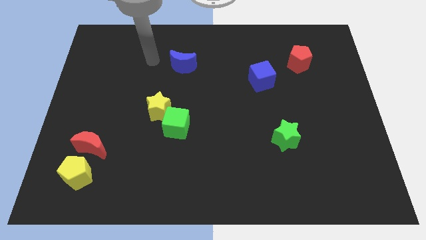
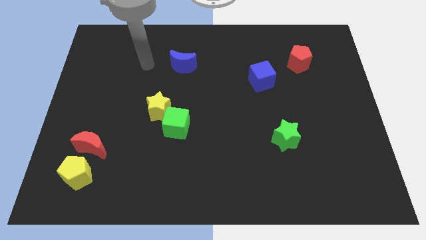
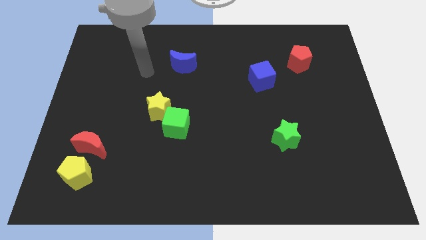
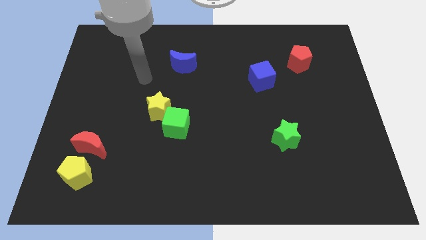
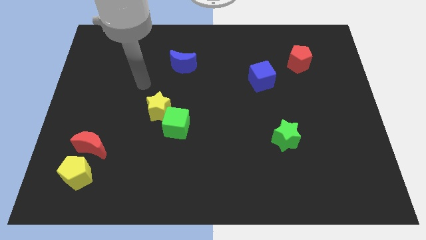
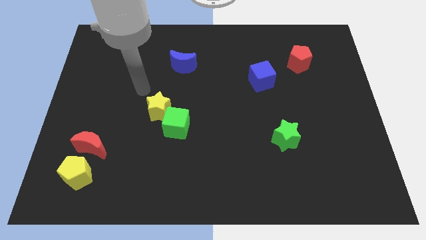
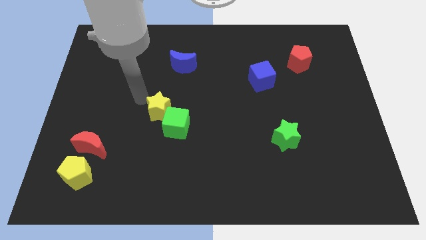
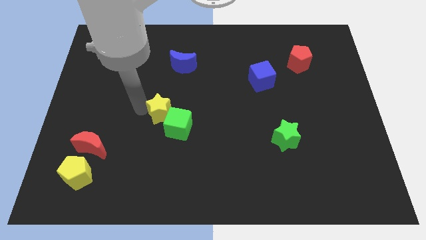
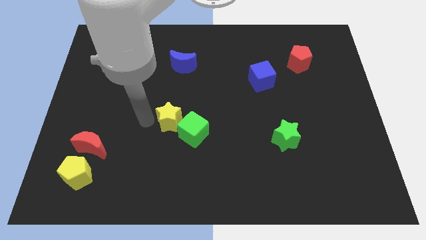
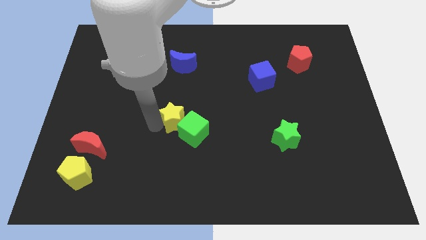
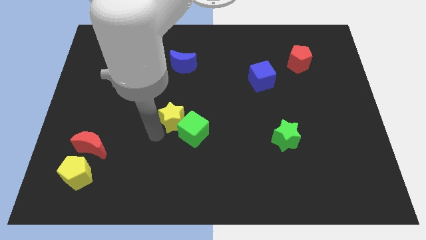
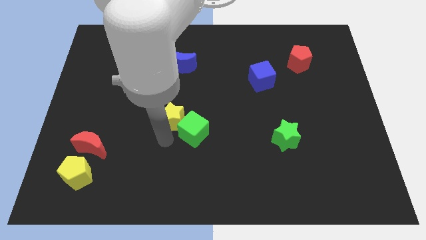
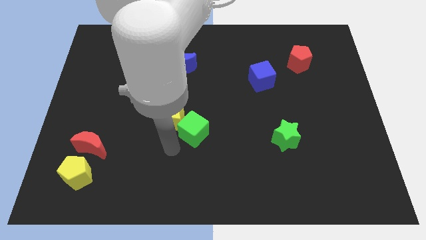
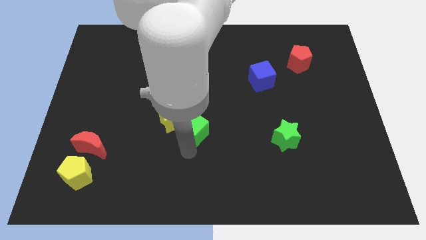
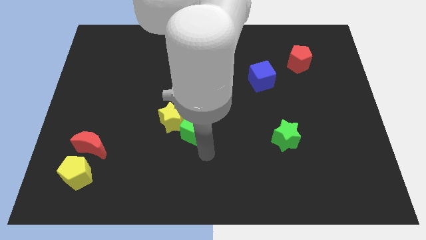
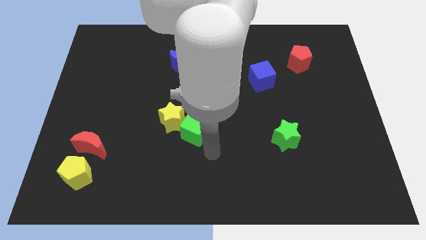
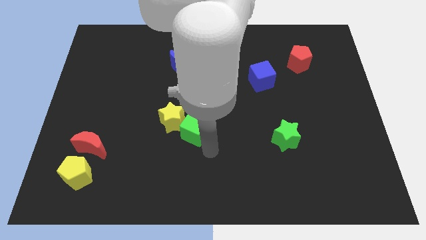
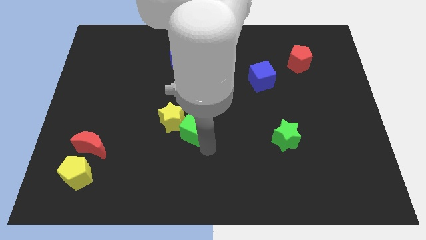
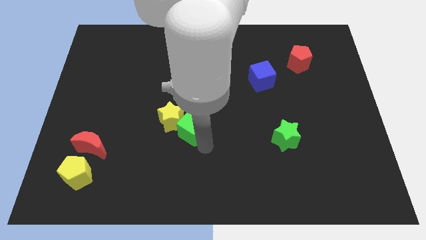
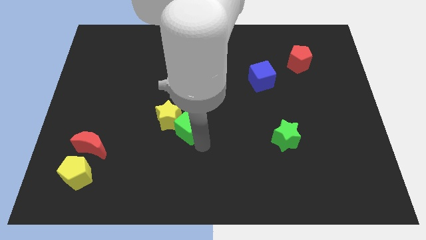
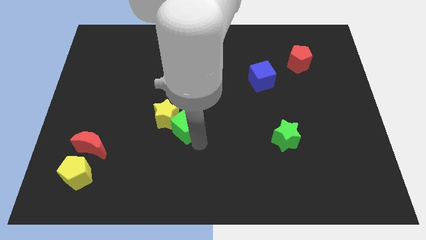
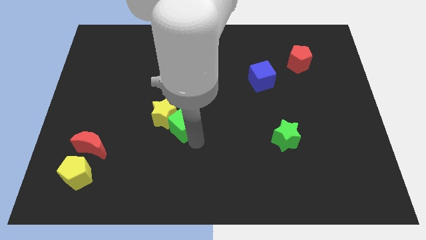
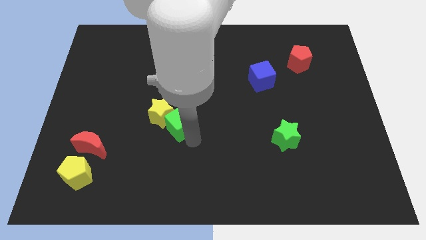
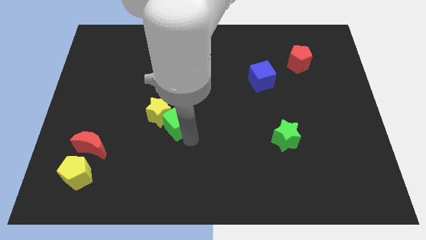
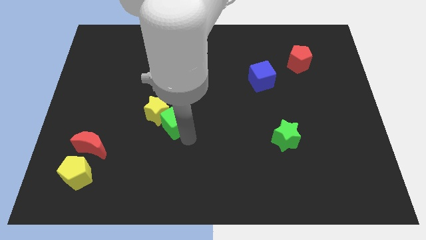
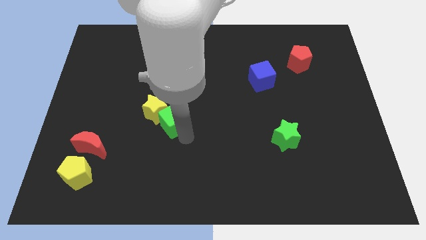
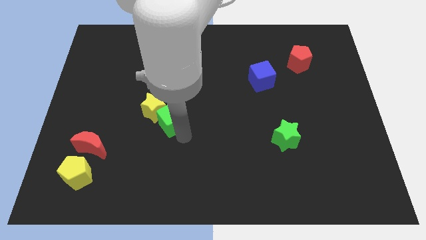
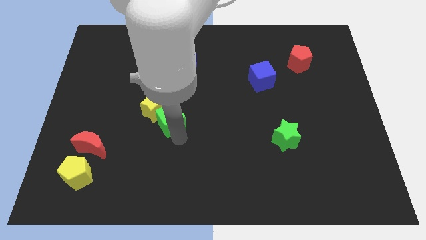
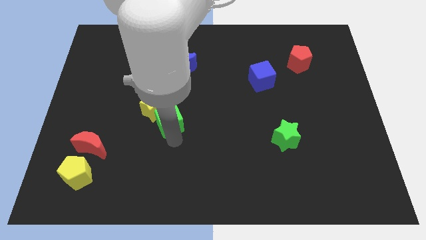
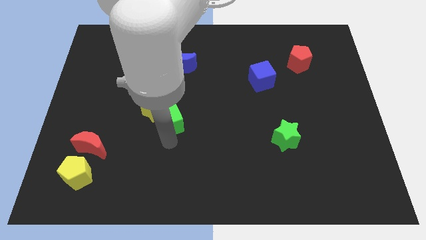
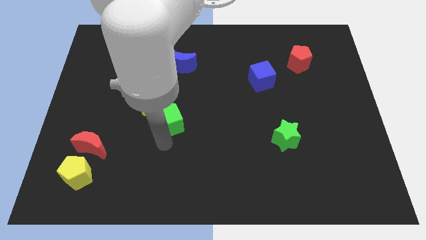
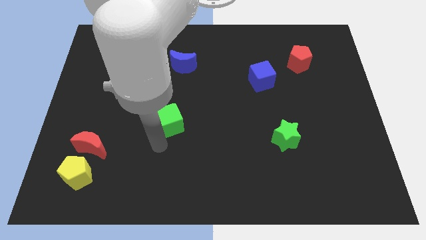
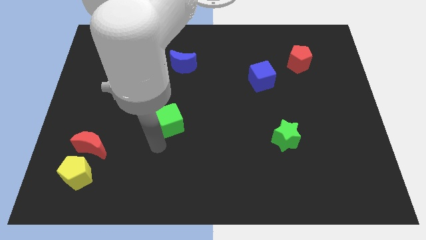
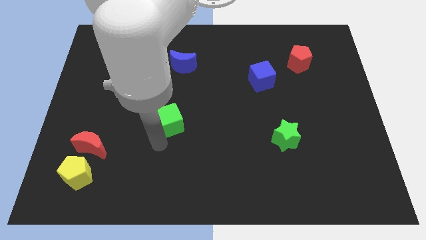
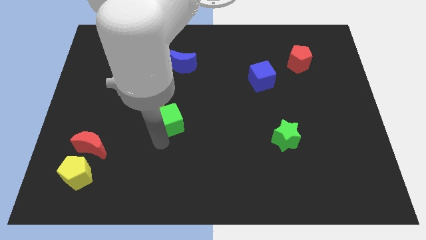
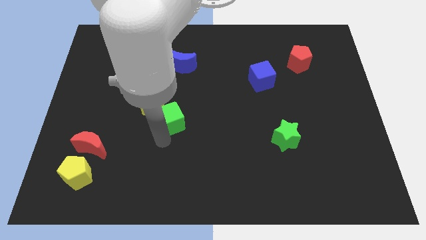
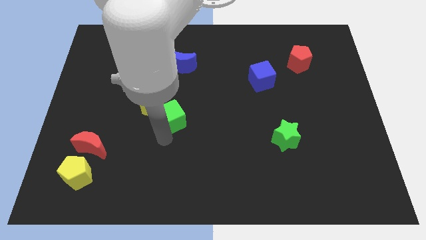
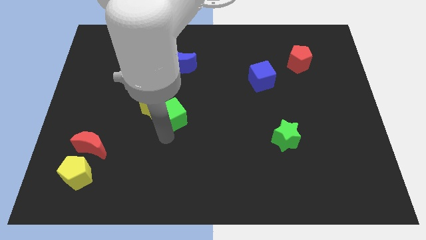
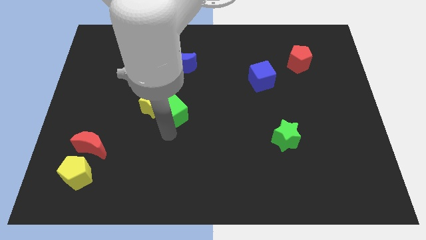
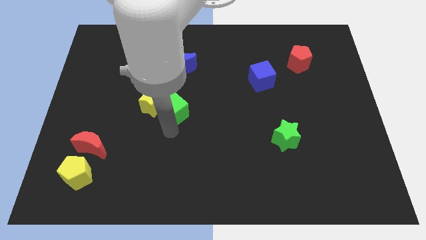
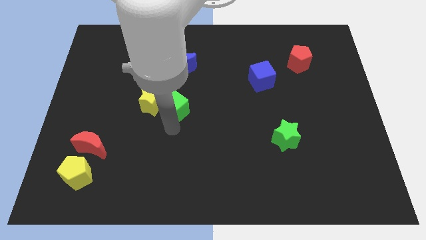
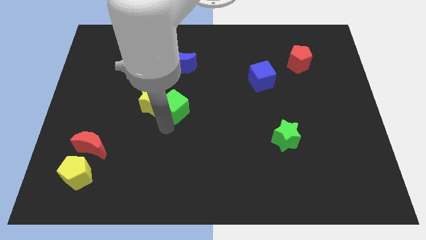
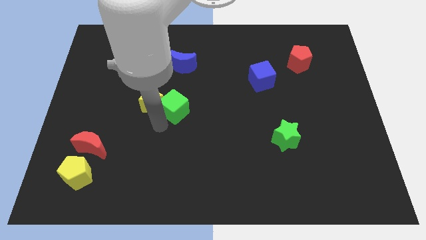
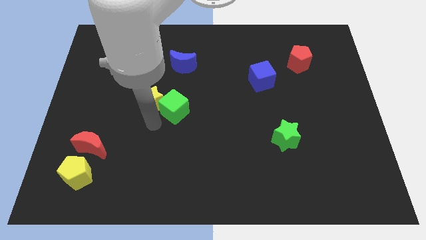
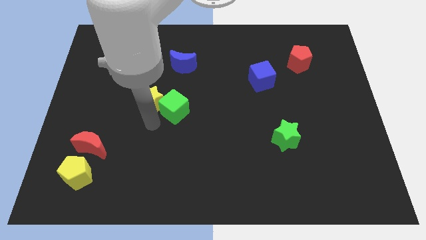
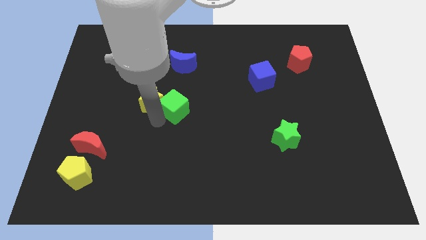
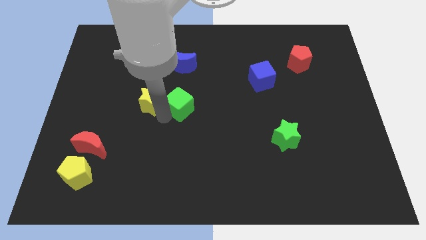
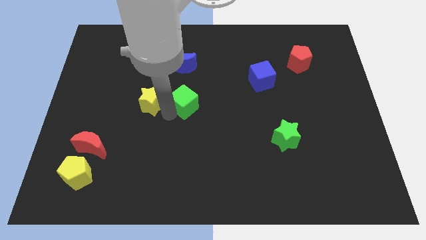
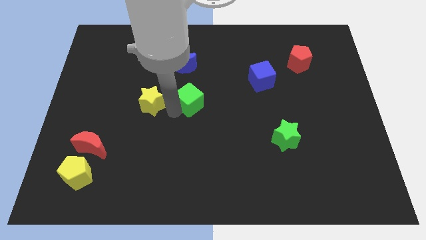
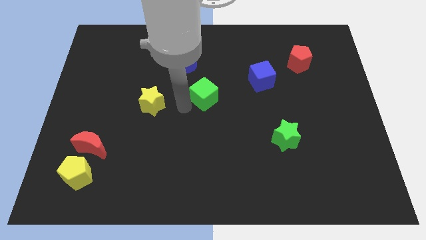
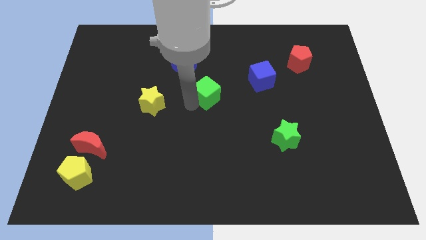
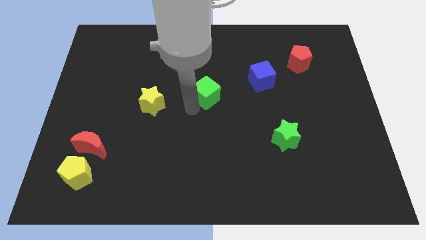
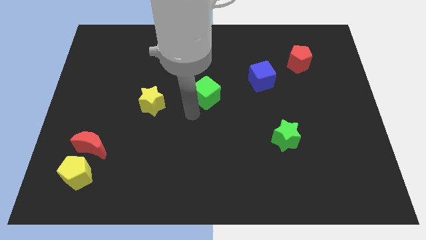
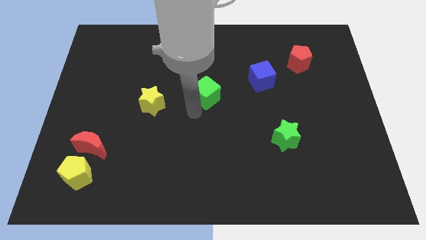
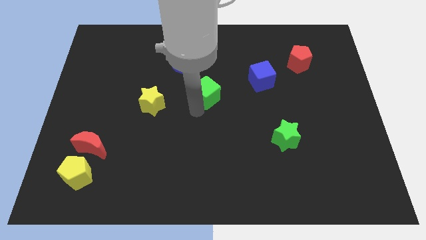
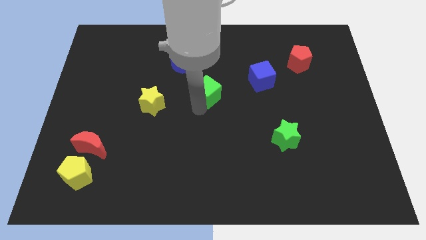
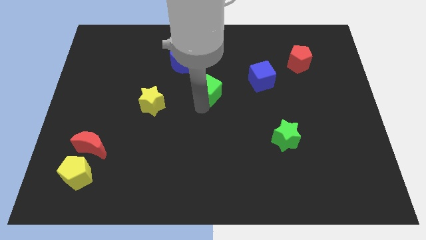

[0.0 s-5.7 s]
push the green cube just left of the blue cube

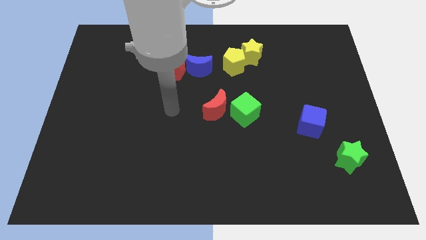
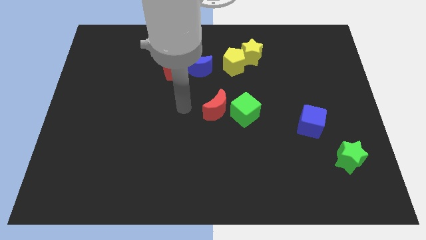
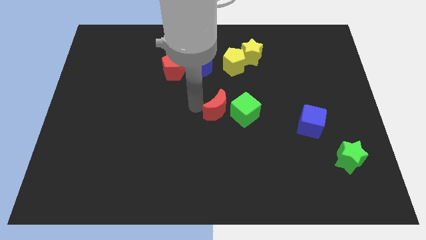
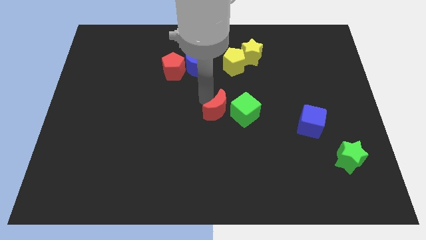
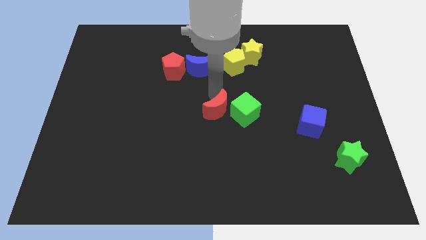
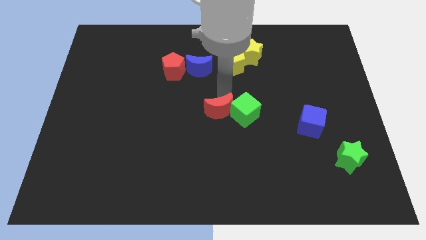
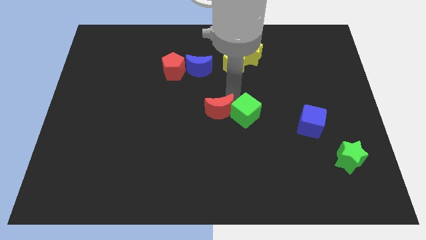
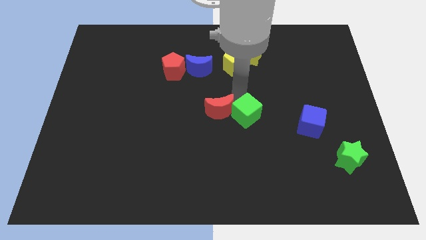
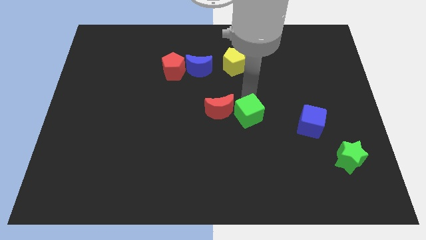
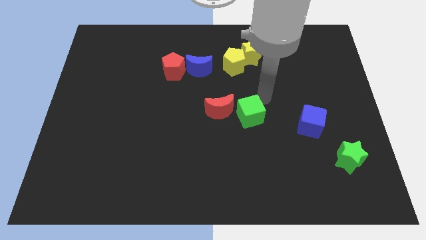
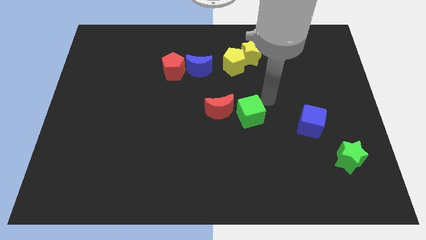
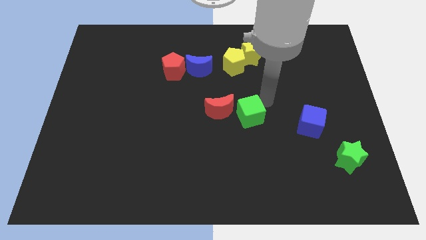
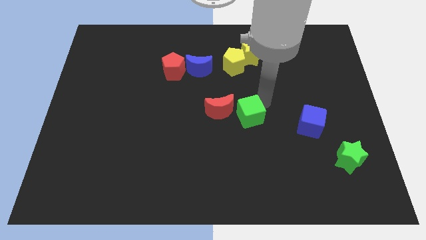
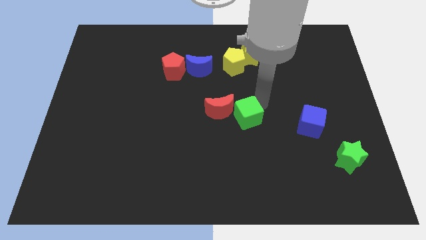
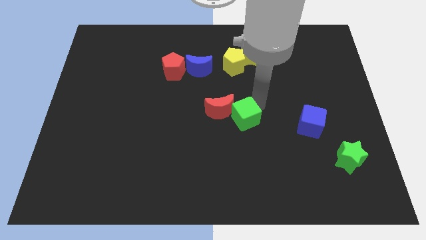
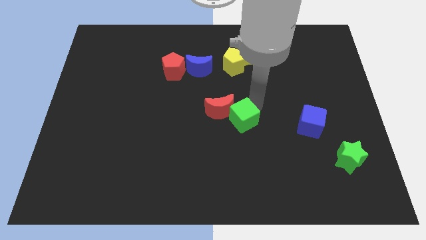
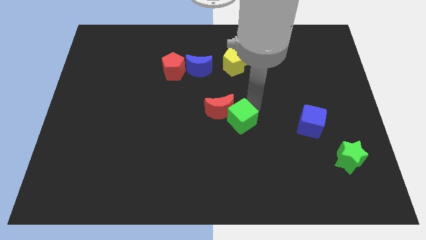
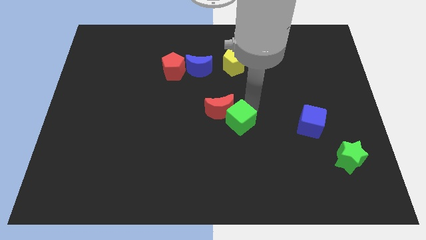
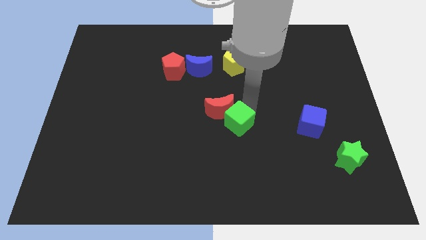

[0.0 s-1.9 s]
move the green cube below the red moon

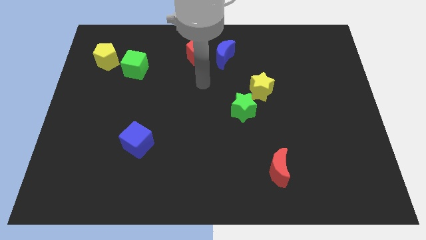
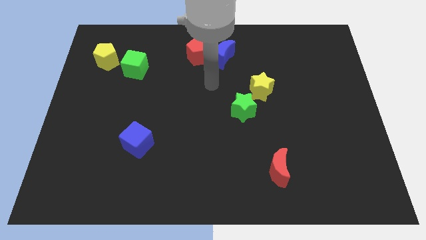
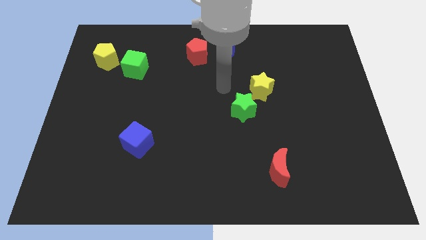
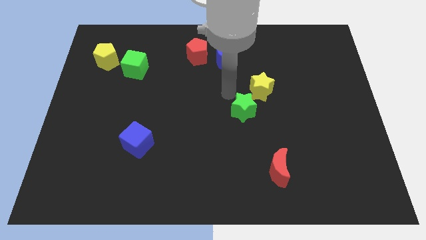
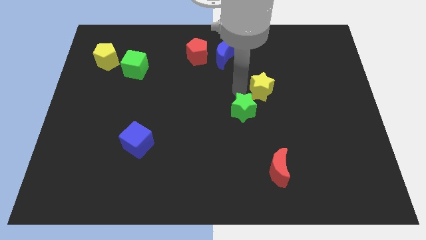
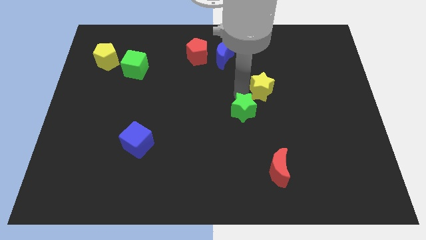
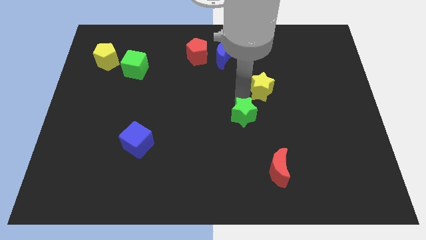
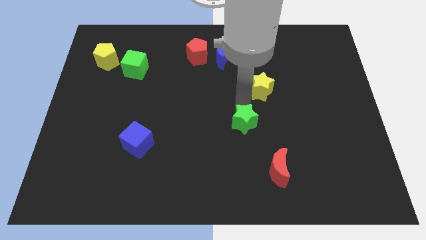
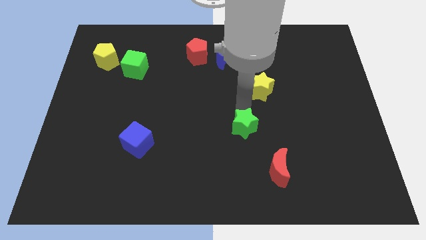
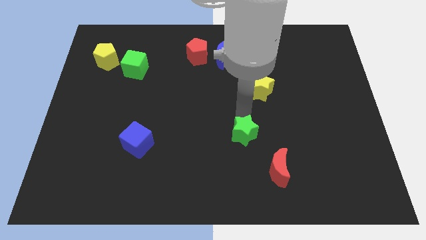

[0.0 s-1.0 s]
put the green star to the top left side of the red moon
